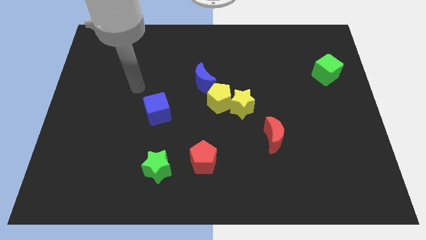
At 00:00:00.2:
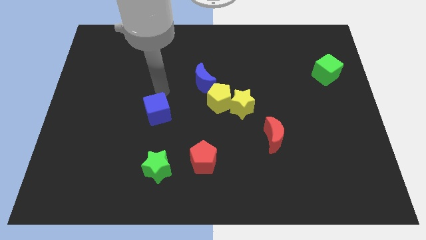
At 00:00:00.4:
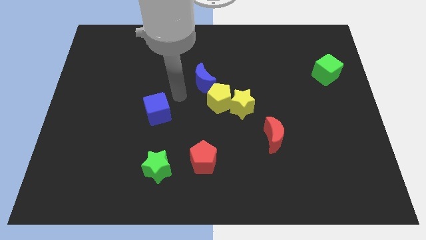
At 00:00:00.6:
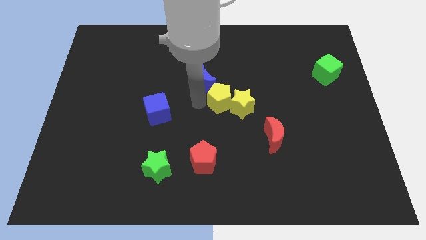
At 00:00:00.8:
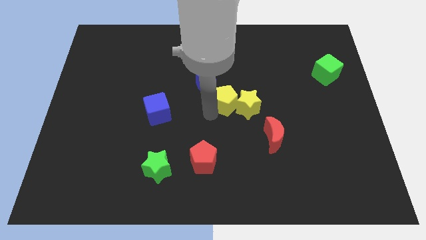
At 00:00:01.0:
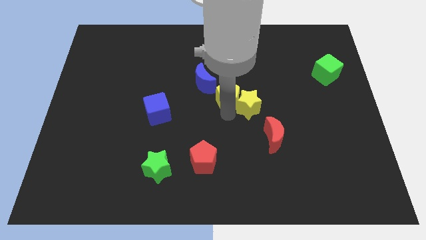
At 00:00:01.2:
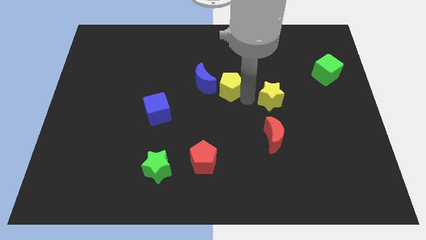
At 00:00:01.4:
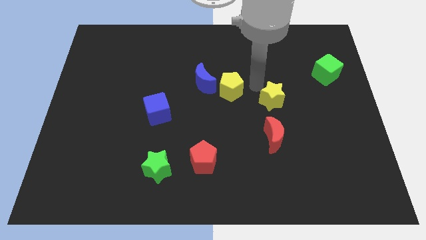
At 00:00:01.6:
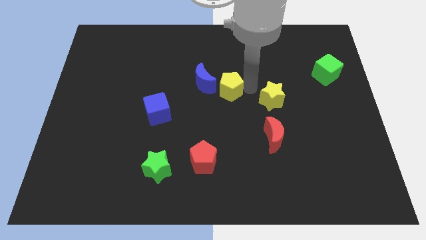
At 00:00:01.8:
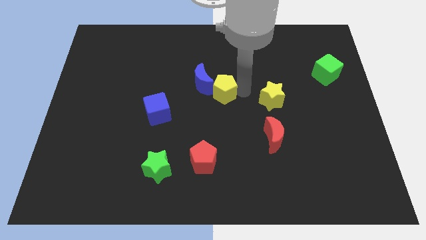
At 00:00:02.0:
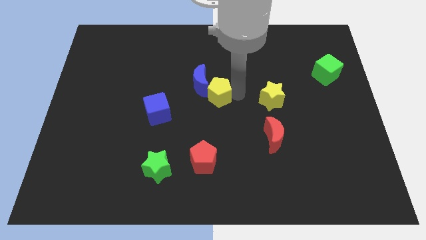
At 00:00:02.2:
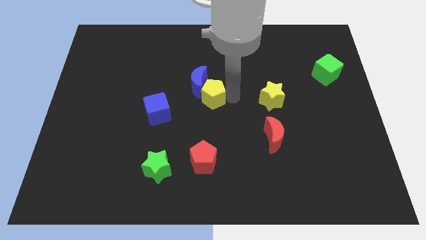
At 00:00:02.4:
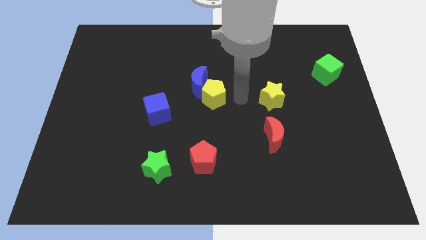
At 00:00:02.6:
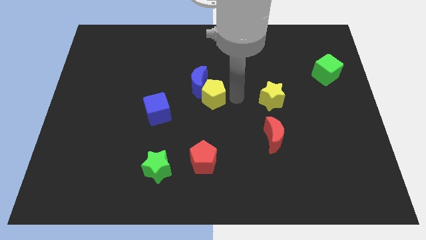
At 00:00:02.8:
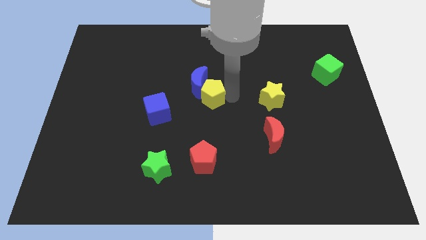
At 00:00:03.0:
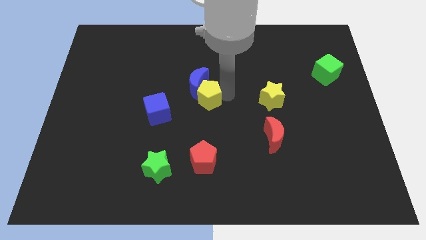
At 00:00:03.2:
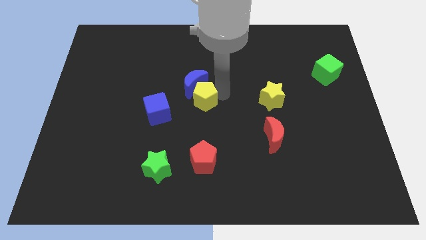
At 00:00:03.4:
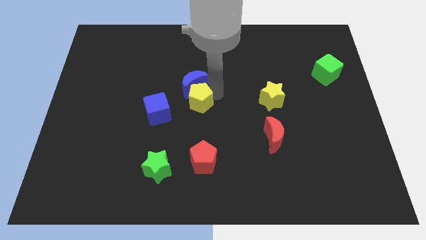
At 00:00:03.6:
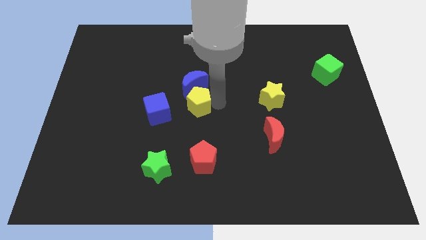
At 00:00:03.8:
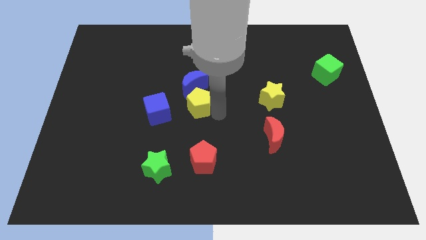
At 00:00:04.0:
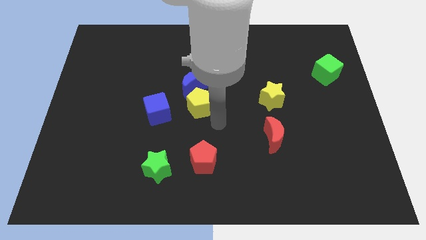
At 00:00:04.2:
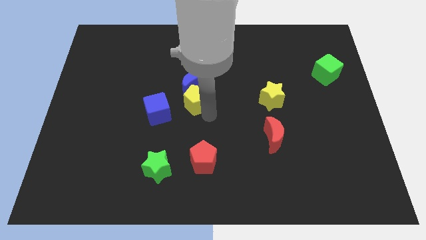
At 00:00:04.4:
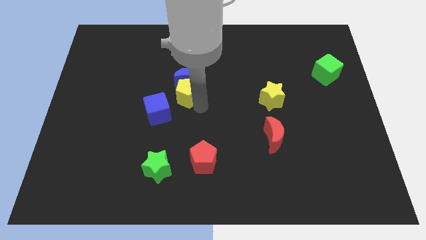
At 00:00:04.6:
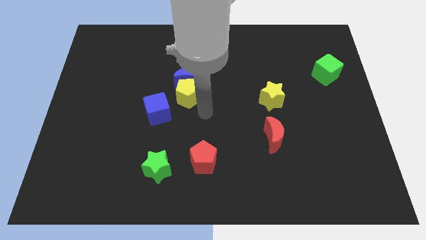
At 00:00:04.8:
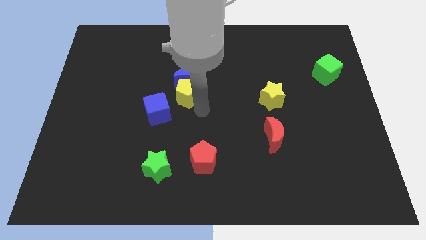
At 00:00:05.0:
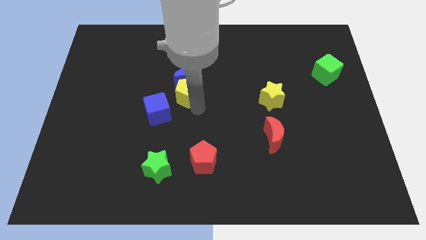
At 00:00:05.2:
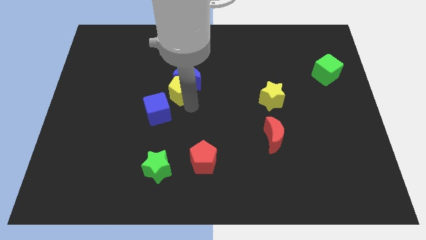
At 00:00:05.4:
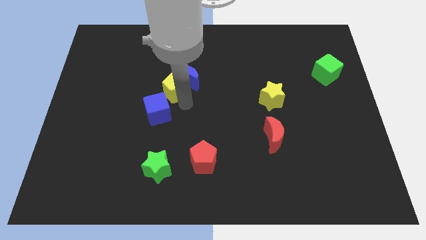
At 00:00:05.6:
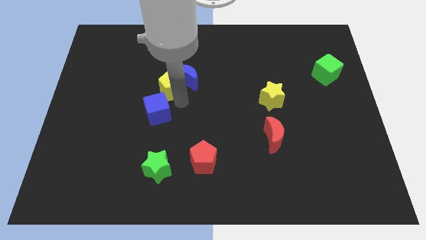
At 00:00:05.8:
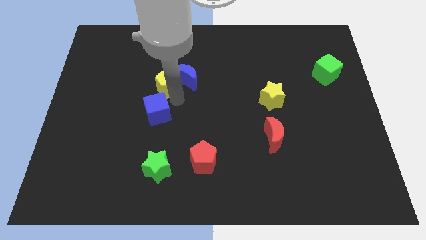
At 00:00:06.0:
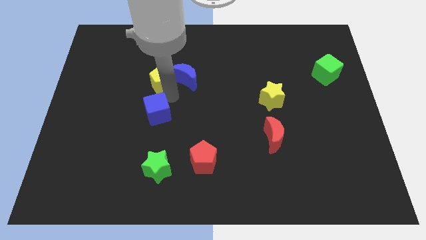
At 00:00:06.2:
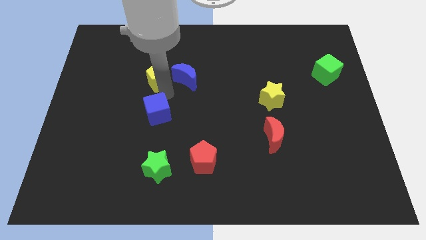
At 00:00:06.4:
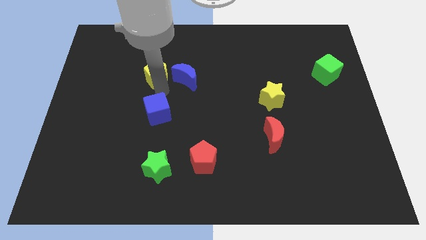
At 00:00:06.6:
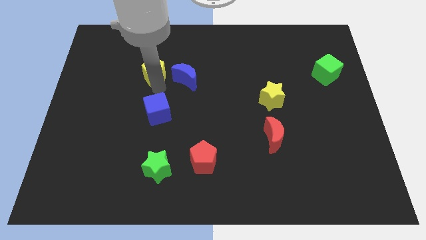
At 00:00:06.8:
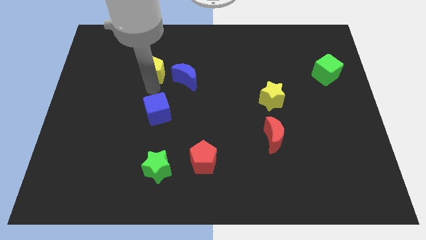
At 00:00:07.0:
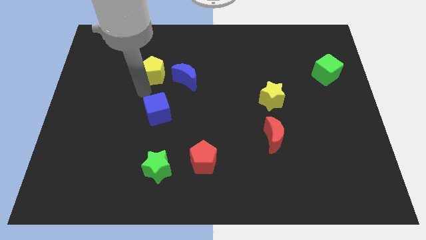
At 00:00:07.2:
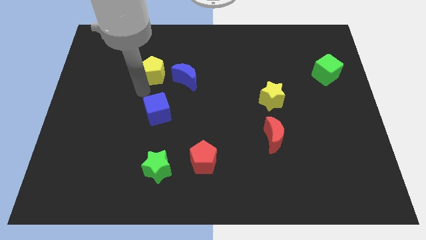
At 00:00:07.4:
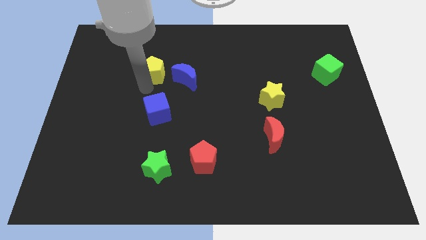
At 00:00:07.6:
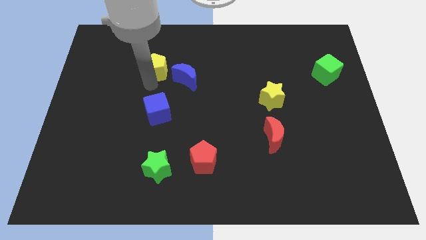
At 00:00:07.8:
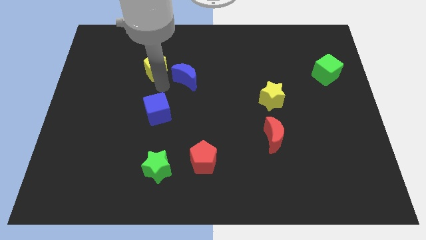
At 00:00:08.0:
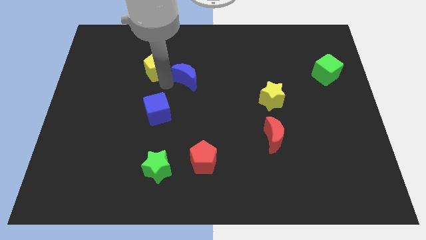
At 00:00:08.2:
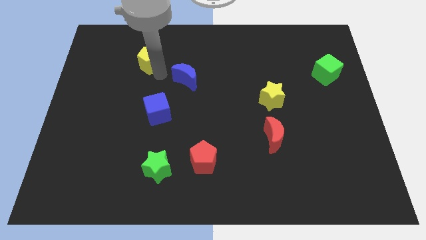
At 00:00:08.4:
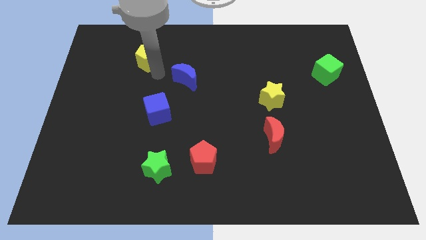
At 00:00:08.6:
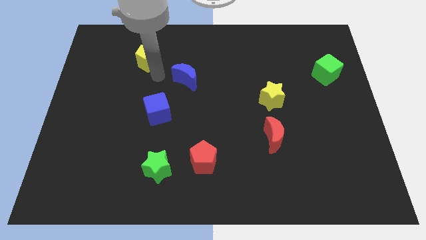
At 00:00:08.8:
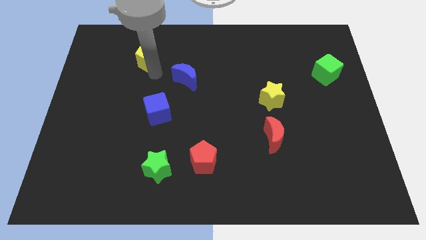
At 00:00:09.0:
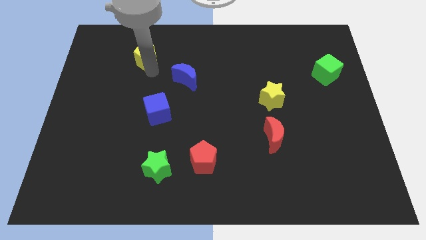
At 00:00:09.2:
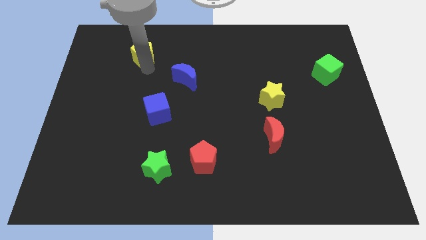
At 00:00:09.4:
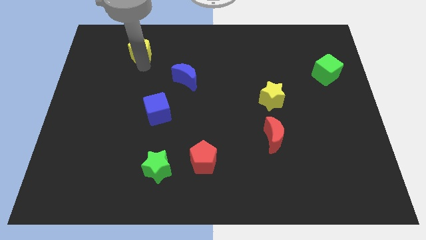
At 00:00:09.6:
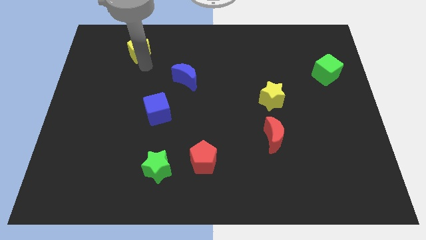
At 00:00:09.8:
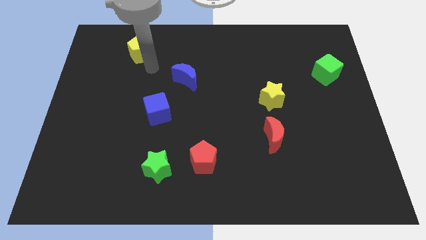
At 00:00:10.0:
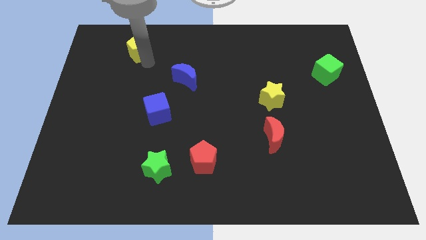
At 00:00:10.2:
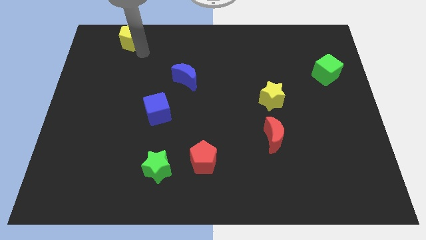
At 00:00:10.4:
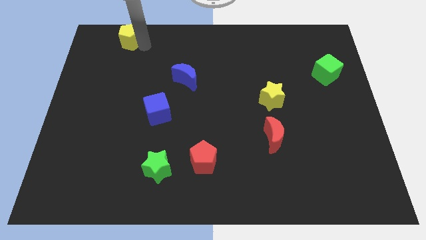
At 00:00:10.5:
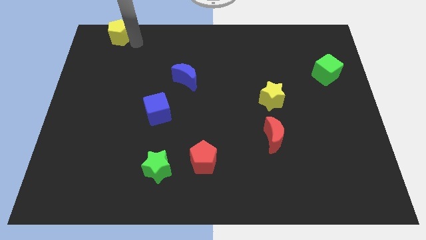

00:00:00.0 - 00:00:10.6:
slide the yellow pentagon to the top left of the board
